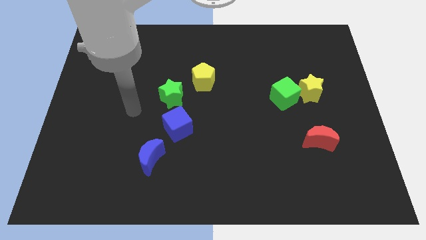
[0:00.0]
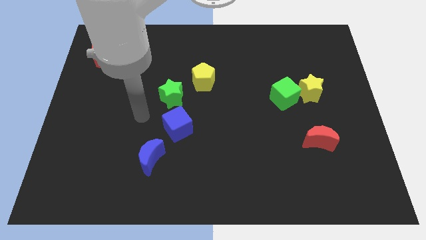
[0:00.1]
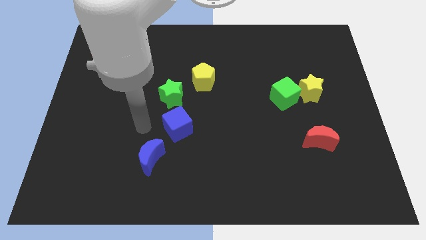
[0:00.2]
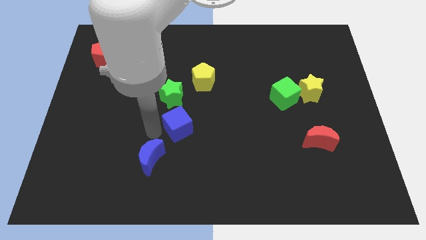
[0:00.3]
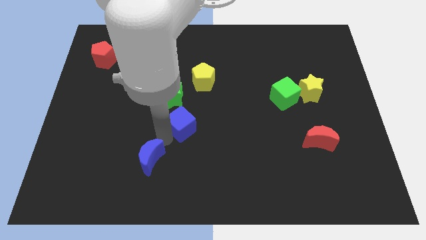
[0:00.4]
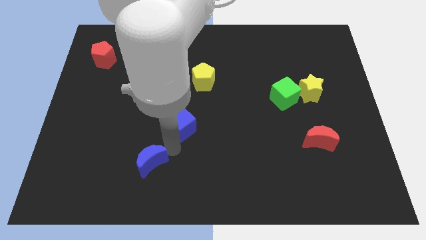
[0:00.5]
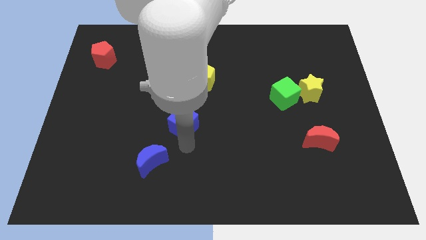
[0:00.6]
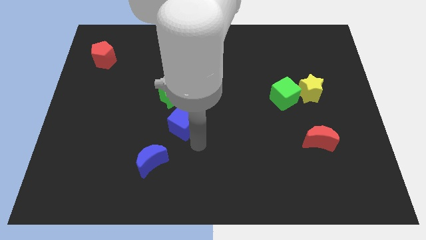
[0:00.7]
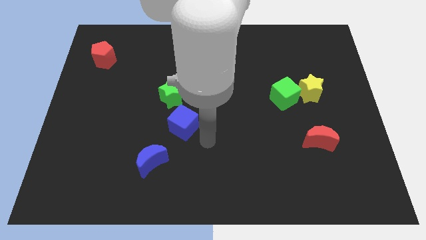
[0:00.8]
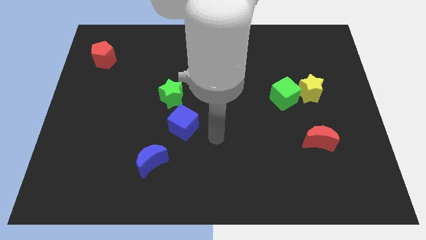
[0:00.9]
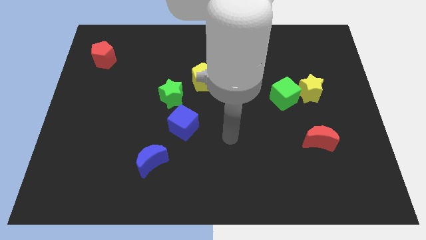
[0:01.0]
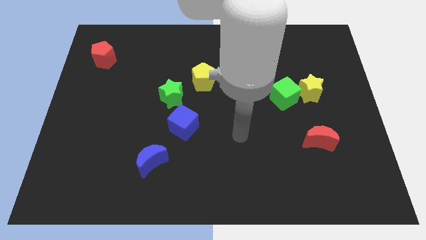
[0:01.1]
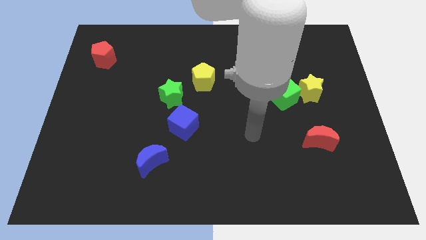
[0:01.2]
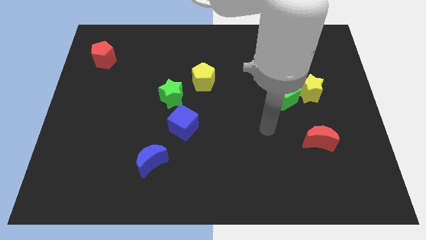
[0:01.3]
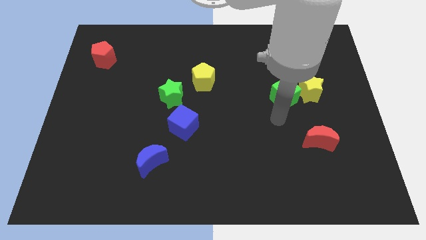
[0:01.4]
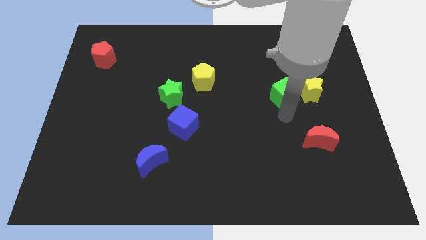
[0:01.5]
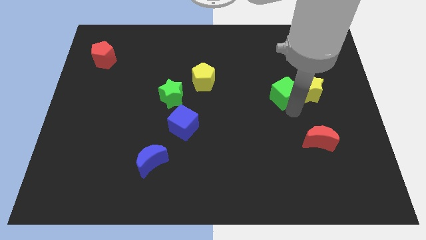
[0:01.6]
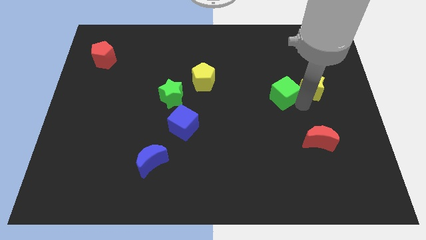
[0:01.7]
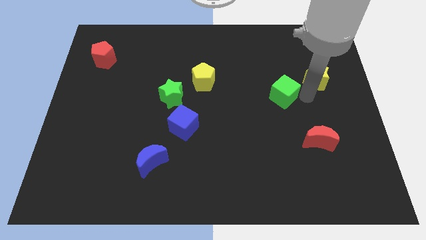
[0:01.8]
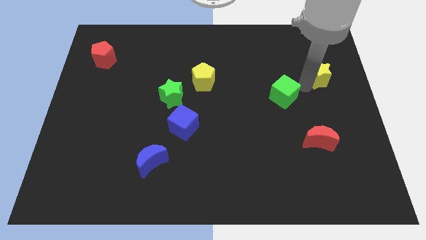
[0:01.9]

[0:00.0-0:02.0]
separate the green cube from the yellow star

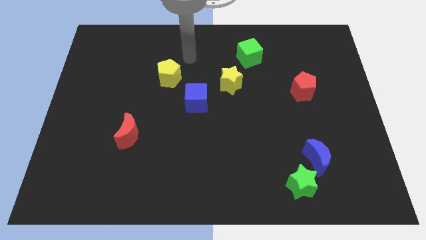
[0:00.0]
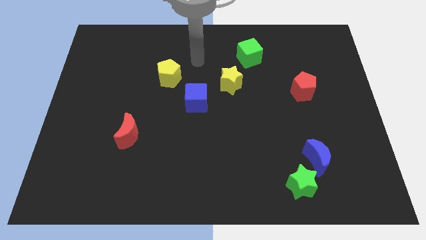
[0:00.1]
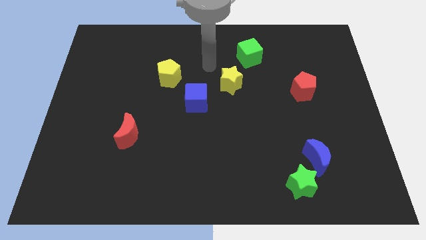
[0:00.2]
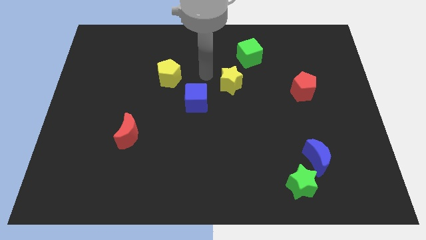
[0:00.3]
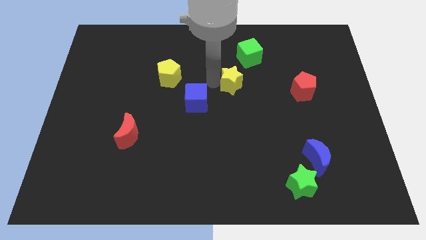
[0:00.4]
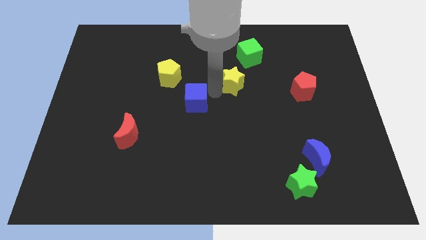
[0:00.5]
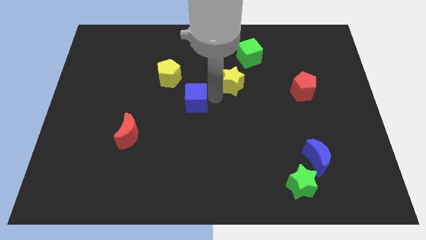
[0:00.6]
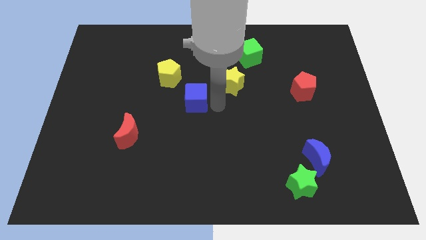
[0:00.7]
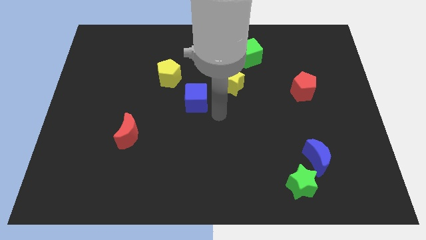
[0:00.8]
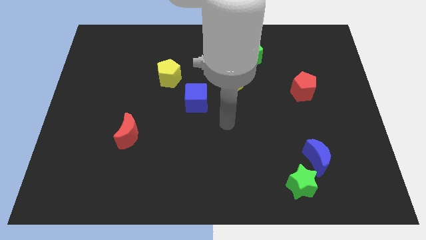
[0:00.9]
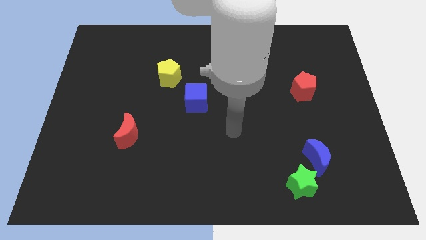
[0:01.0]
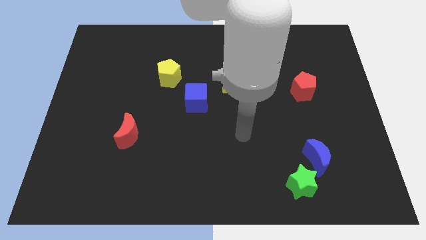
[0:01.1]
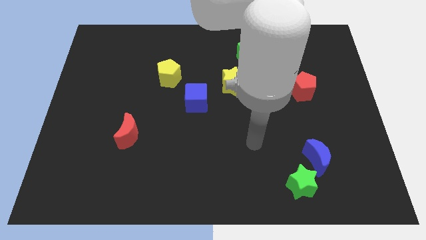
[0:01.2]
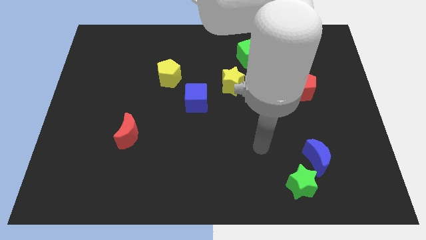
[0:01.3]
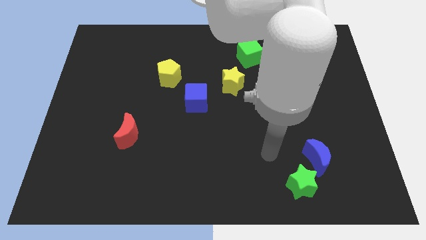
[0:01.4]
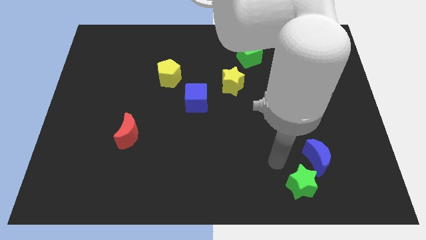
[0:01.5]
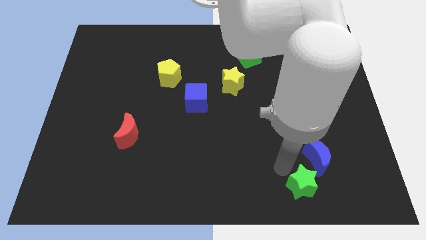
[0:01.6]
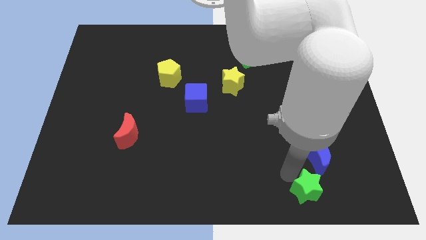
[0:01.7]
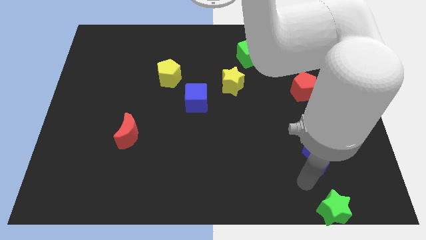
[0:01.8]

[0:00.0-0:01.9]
move the blue moon away from the green star

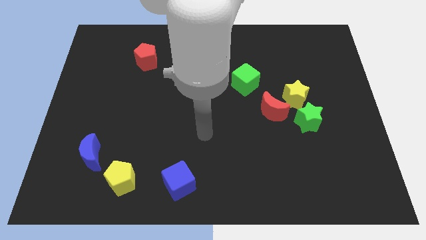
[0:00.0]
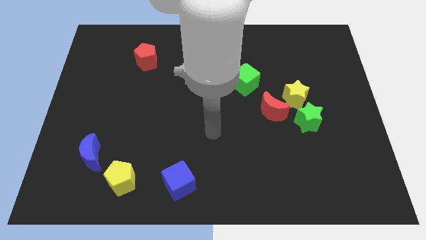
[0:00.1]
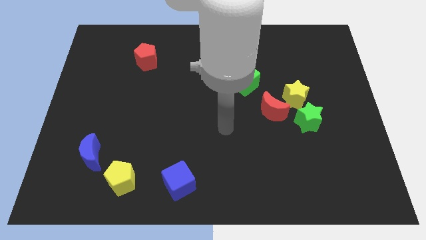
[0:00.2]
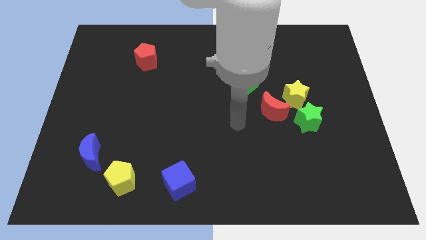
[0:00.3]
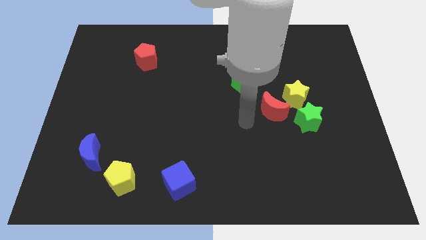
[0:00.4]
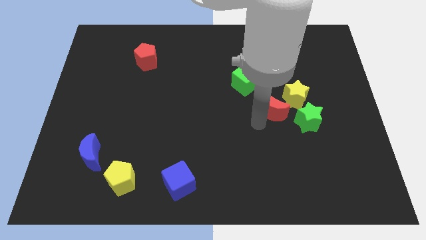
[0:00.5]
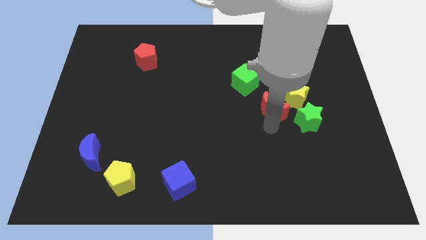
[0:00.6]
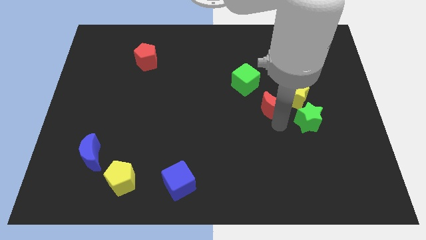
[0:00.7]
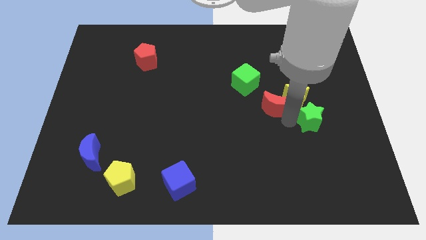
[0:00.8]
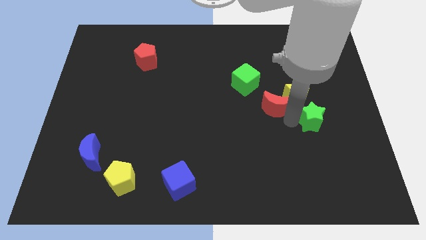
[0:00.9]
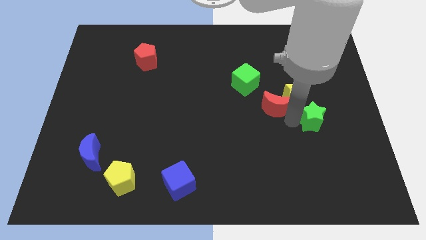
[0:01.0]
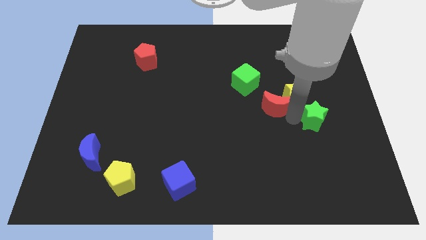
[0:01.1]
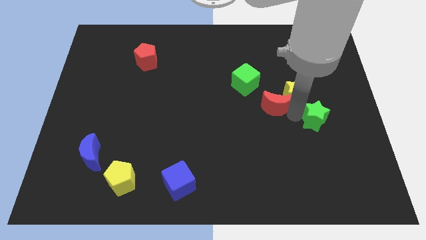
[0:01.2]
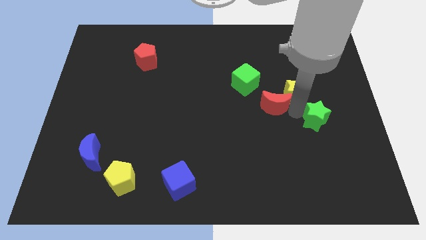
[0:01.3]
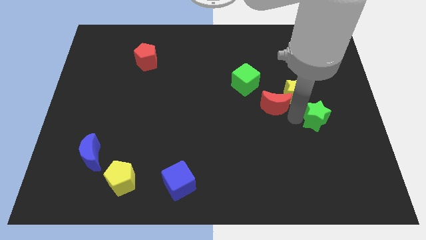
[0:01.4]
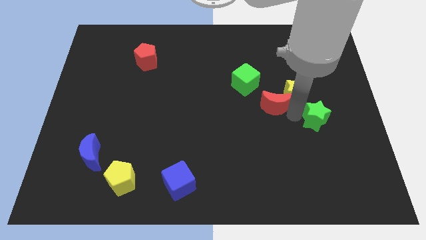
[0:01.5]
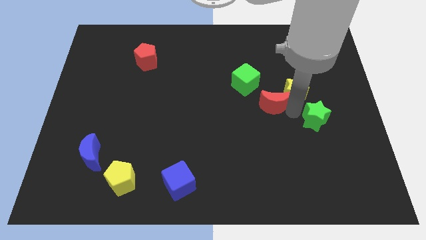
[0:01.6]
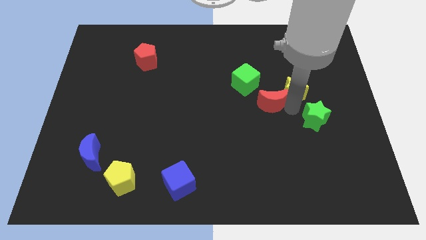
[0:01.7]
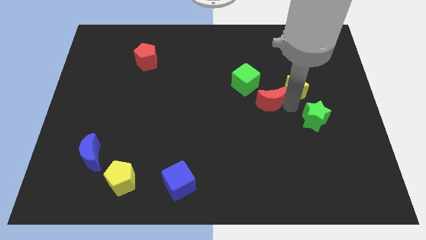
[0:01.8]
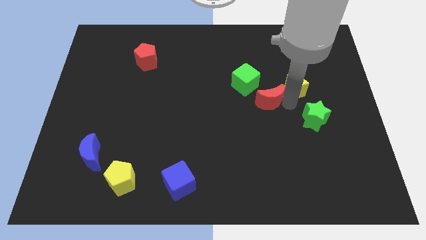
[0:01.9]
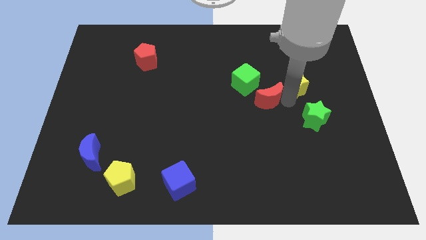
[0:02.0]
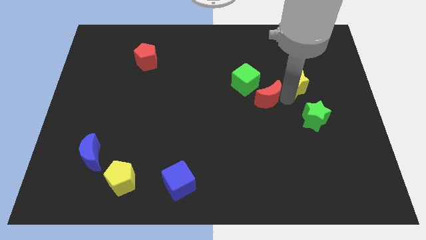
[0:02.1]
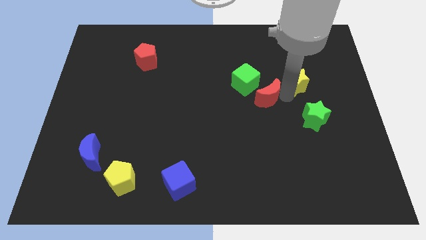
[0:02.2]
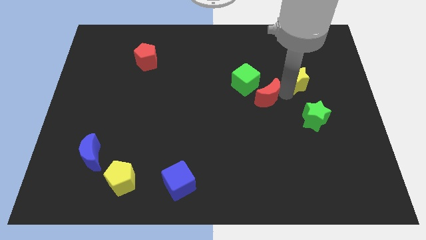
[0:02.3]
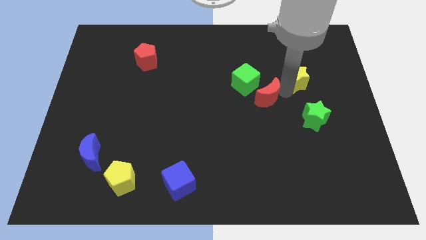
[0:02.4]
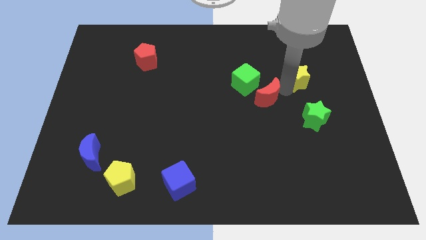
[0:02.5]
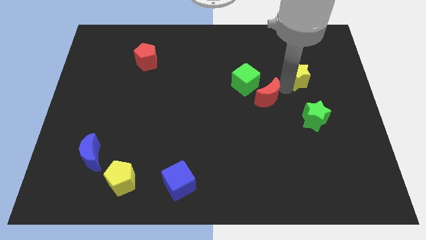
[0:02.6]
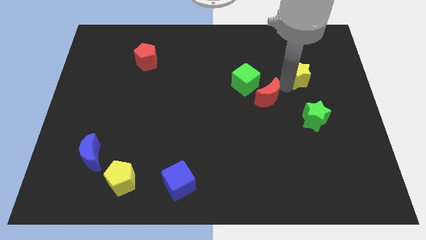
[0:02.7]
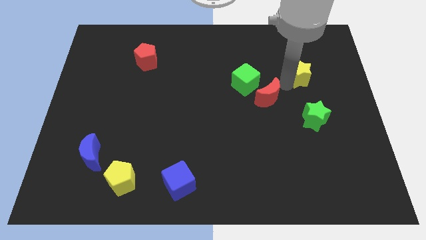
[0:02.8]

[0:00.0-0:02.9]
pull the yellow star apart from the green star and red moon

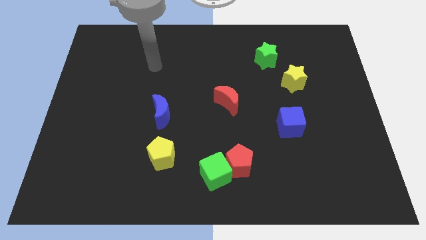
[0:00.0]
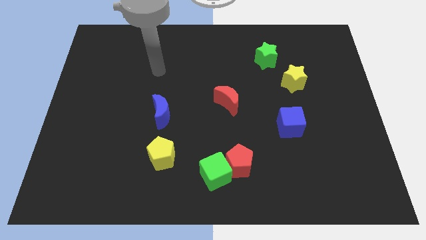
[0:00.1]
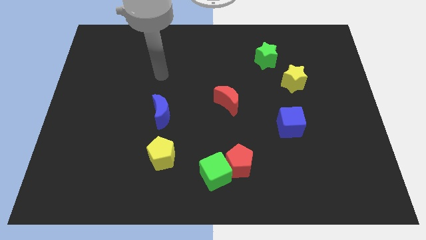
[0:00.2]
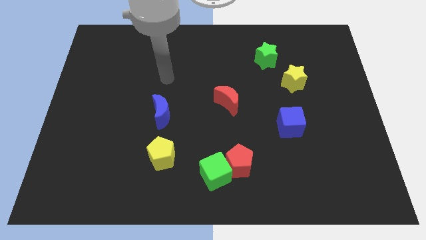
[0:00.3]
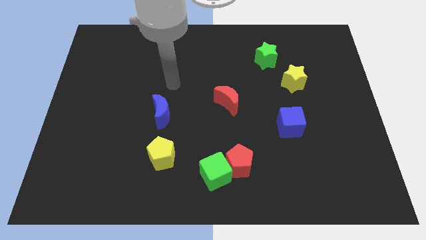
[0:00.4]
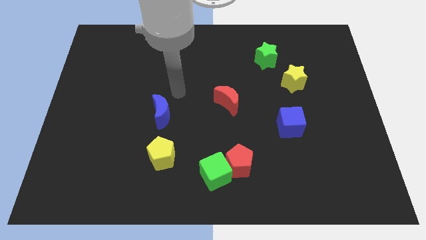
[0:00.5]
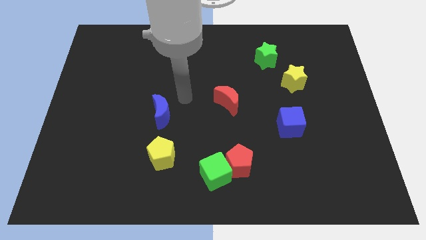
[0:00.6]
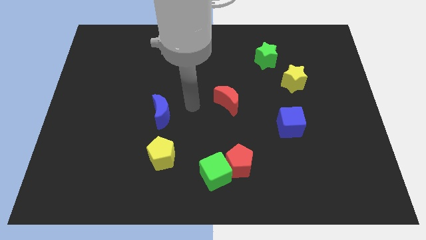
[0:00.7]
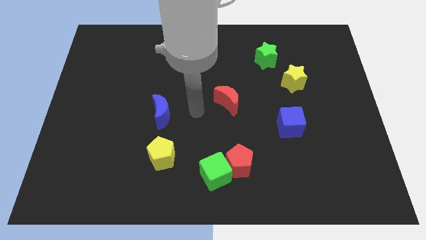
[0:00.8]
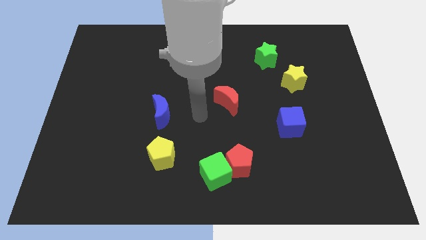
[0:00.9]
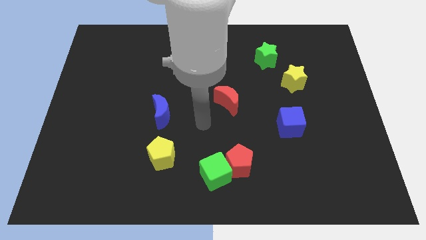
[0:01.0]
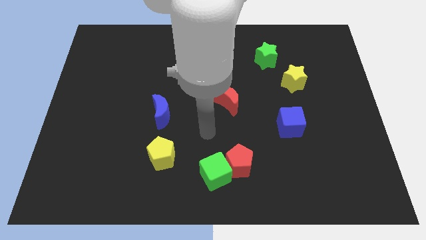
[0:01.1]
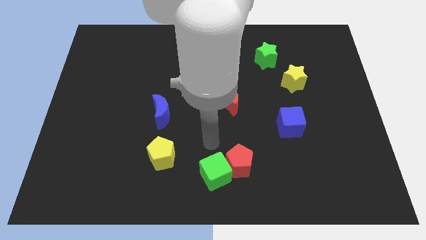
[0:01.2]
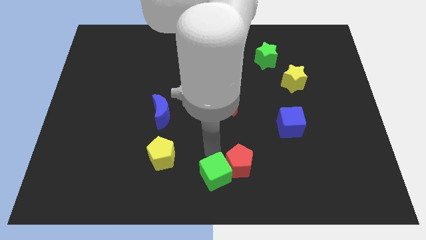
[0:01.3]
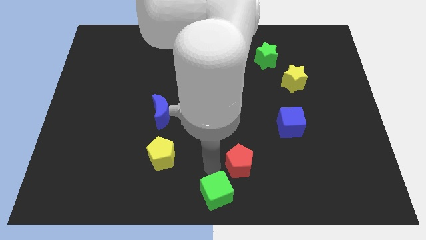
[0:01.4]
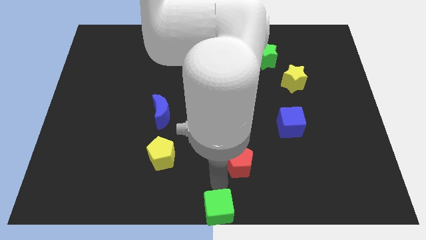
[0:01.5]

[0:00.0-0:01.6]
separate the red pentagon from the green cube

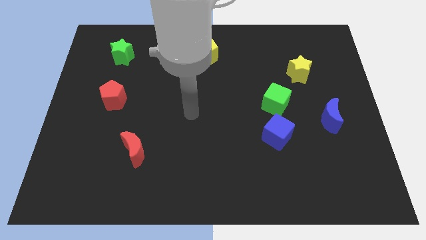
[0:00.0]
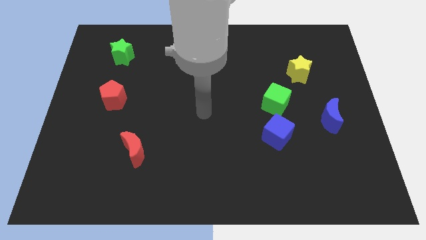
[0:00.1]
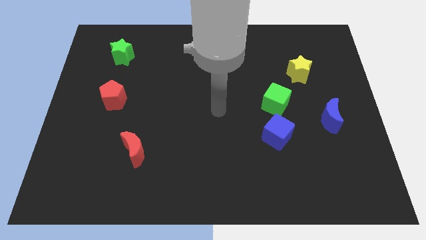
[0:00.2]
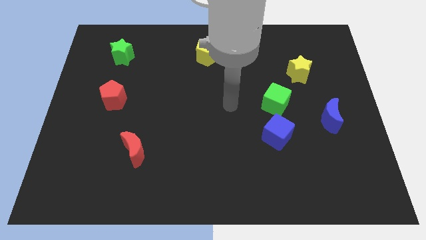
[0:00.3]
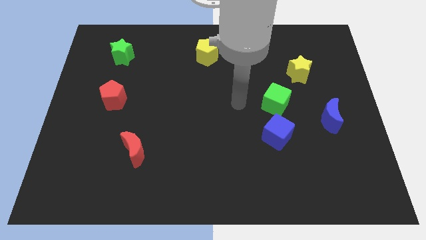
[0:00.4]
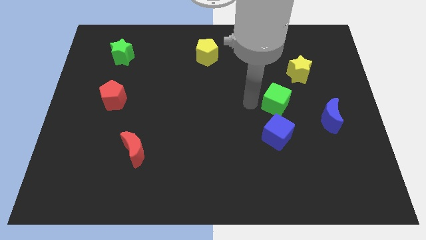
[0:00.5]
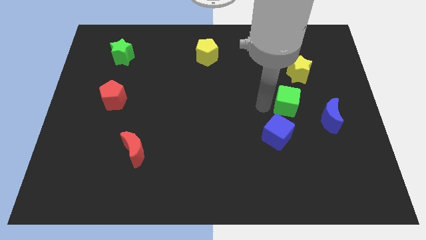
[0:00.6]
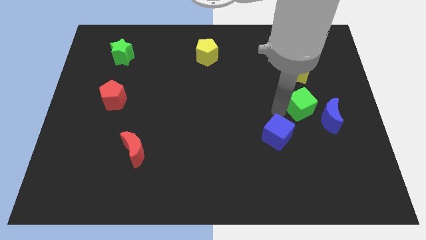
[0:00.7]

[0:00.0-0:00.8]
move the blue cube away from the green cube

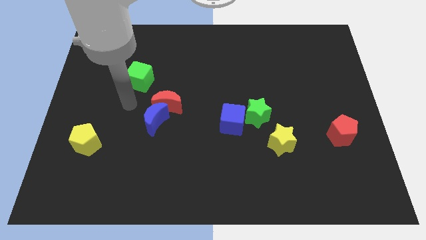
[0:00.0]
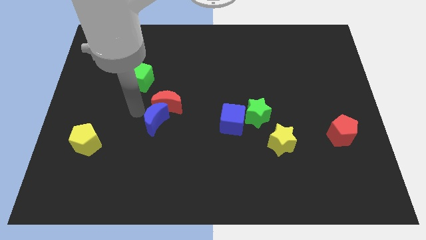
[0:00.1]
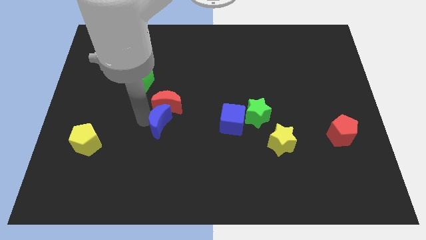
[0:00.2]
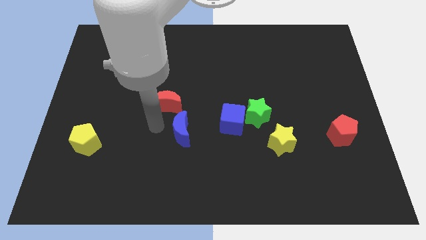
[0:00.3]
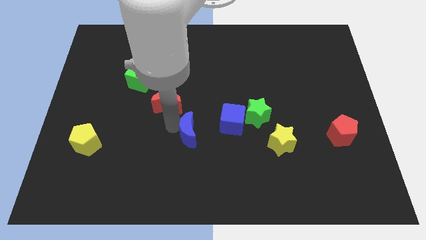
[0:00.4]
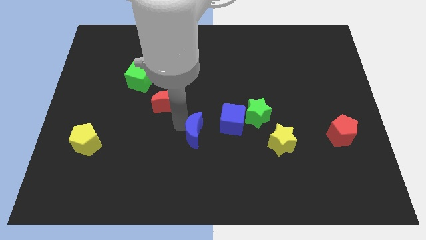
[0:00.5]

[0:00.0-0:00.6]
move the red moon away from the blue moon
